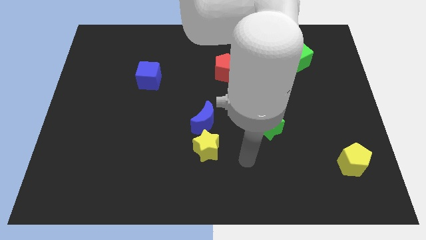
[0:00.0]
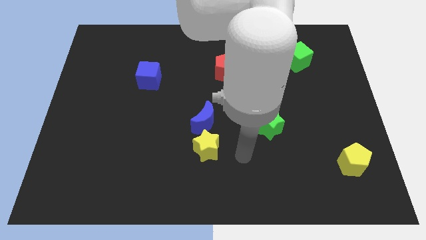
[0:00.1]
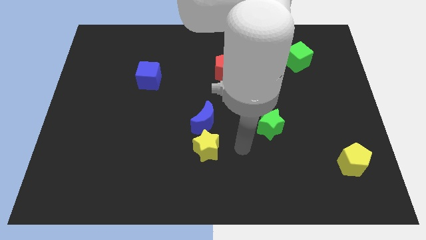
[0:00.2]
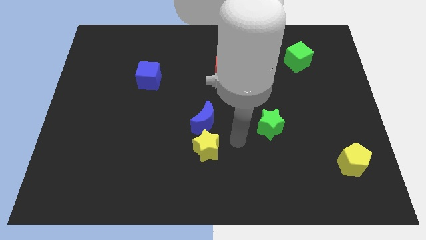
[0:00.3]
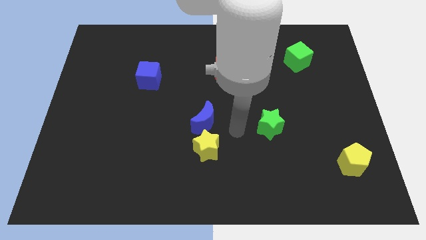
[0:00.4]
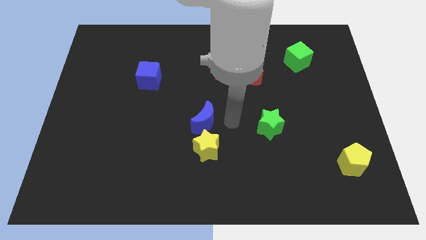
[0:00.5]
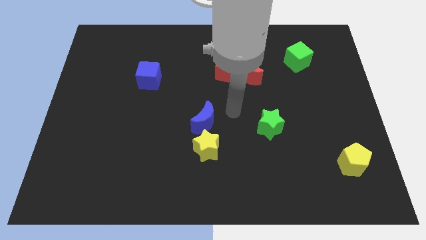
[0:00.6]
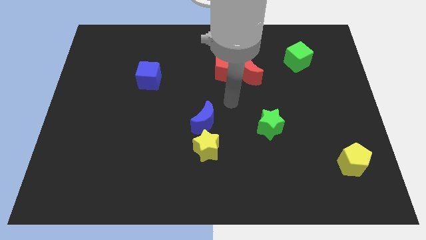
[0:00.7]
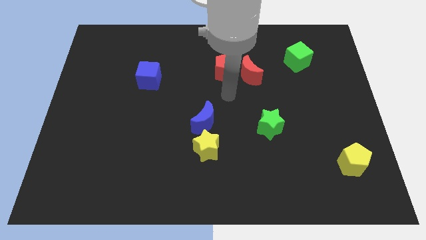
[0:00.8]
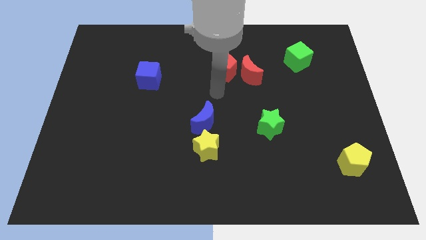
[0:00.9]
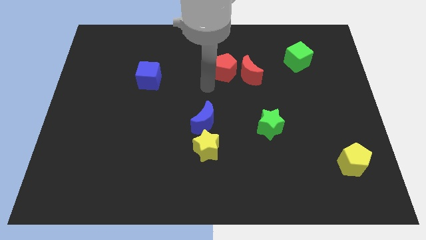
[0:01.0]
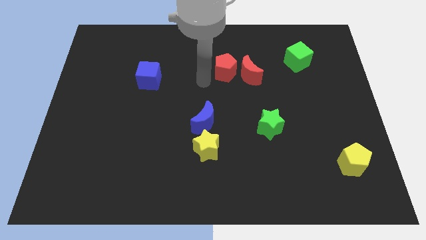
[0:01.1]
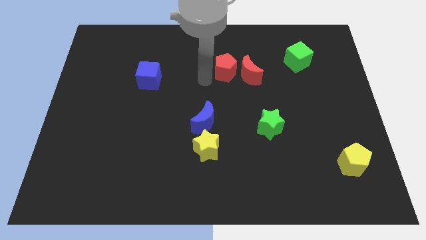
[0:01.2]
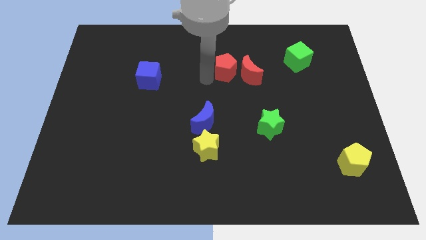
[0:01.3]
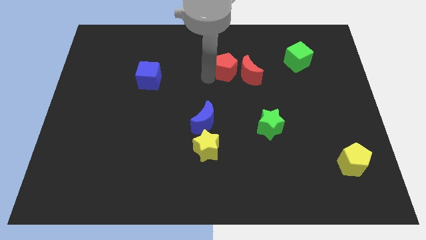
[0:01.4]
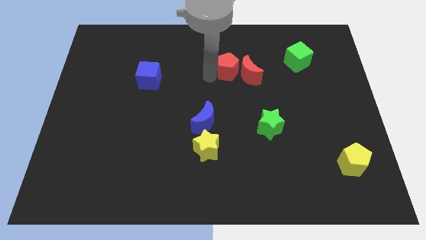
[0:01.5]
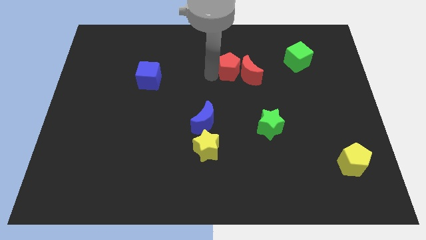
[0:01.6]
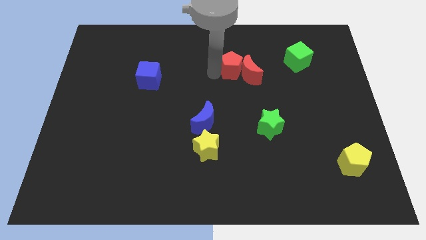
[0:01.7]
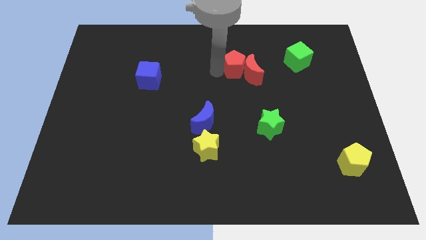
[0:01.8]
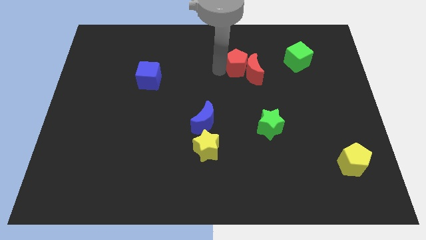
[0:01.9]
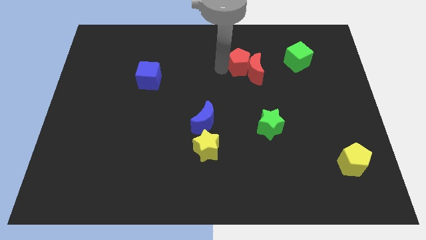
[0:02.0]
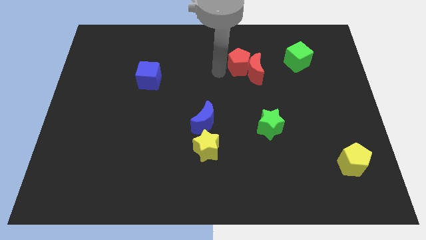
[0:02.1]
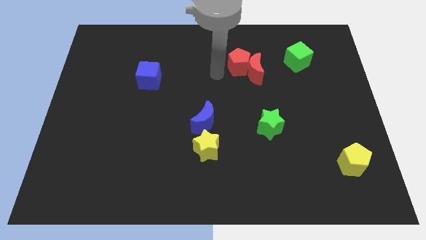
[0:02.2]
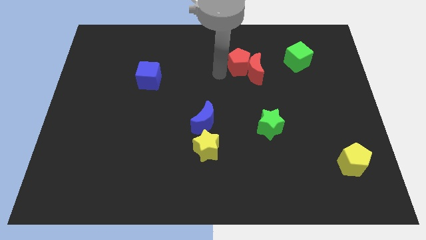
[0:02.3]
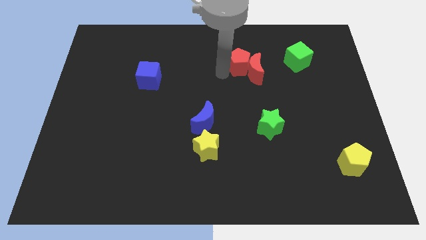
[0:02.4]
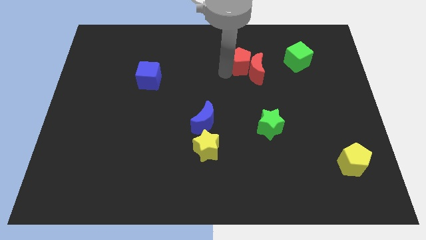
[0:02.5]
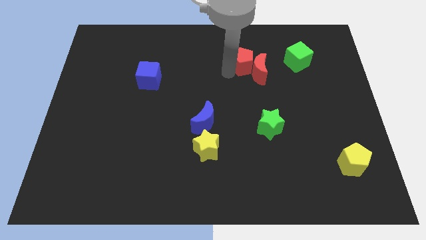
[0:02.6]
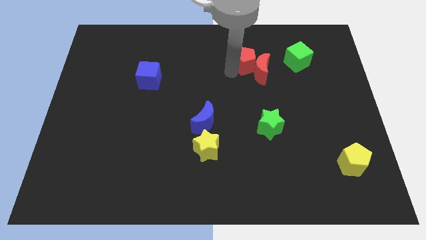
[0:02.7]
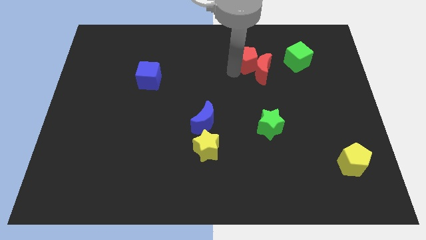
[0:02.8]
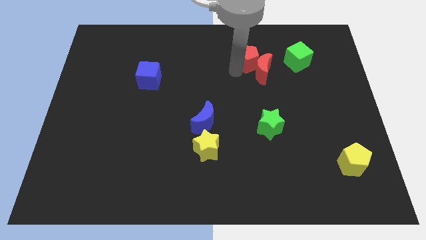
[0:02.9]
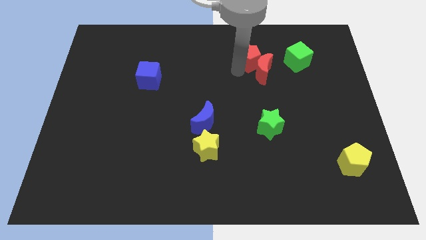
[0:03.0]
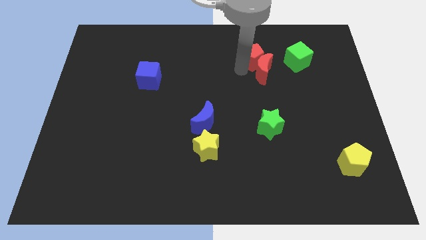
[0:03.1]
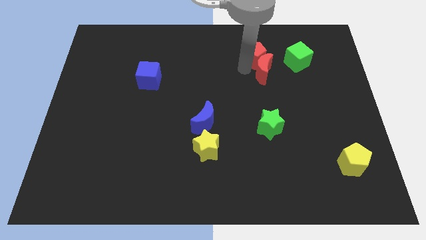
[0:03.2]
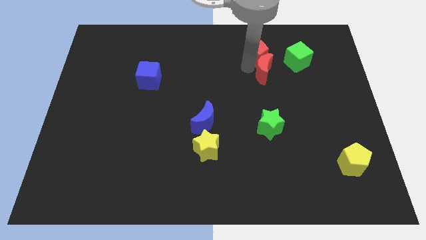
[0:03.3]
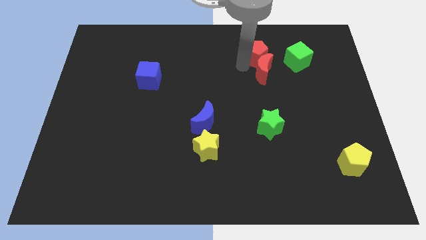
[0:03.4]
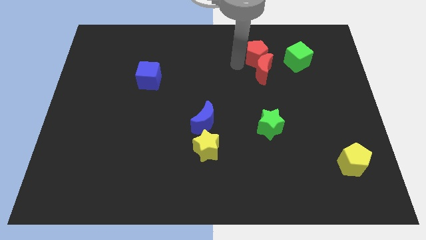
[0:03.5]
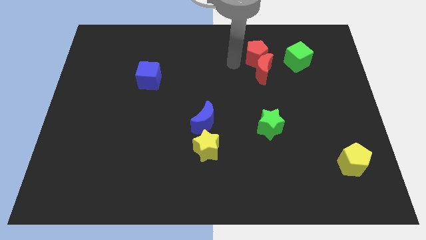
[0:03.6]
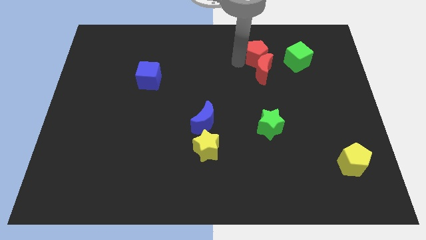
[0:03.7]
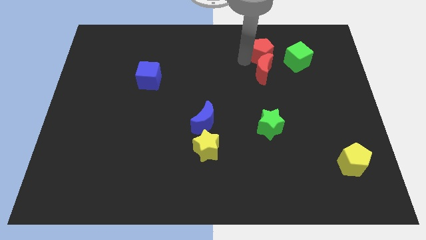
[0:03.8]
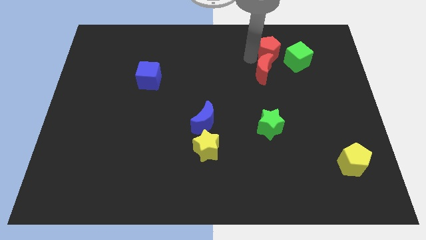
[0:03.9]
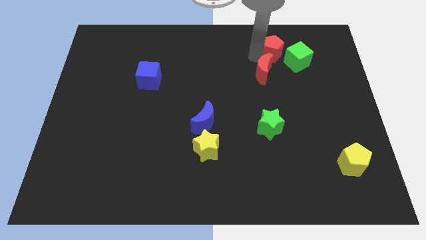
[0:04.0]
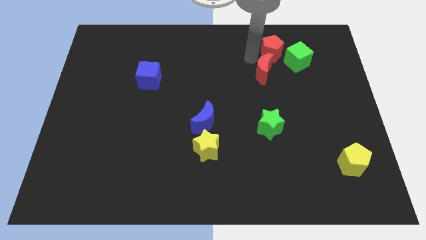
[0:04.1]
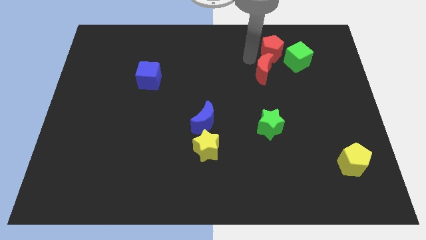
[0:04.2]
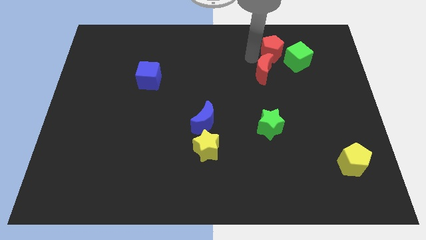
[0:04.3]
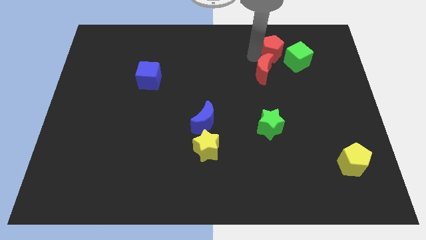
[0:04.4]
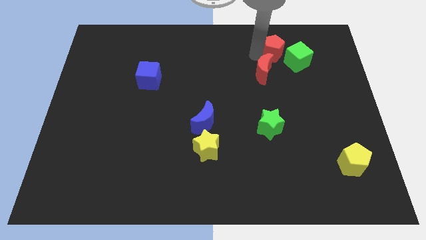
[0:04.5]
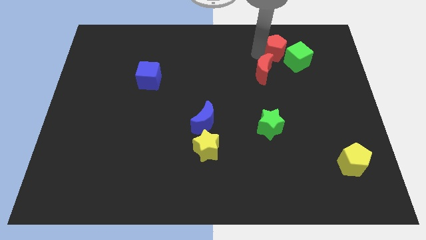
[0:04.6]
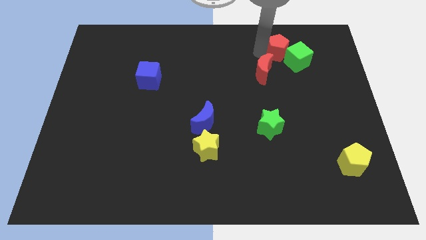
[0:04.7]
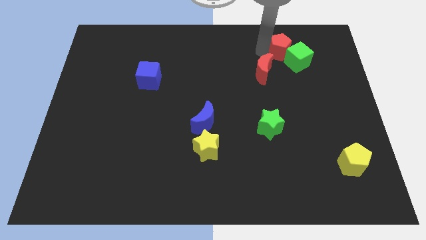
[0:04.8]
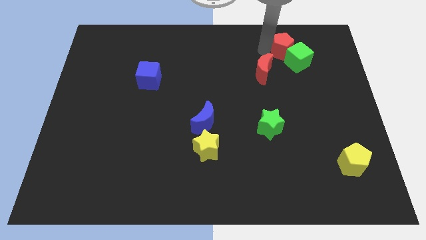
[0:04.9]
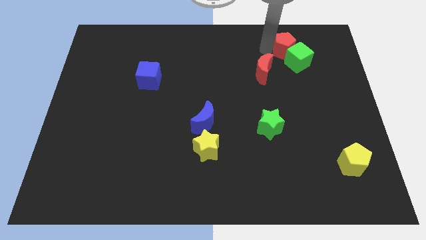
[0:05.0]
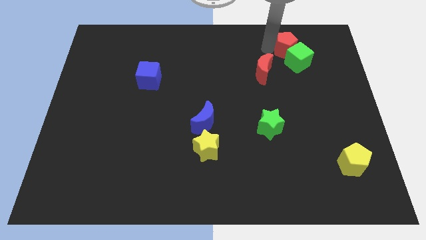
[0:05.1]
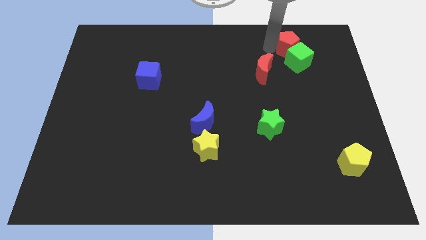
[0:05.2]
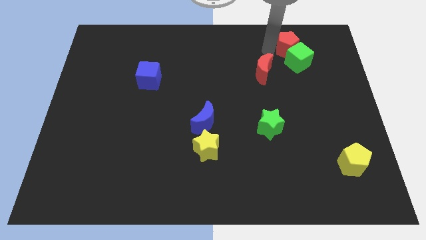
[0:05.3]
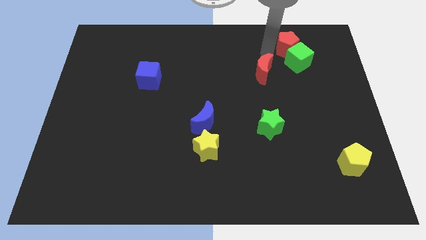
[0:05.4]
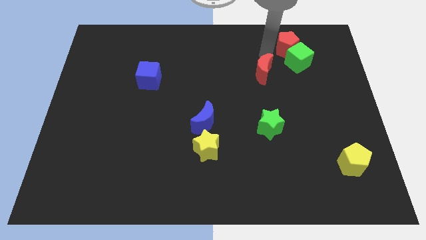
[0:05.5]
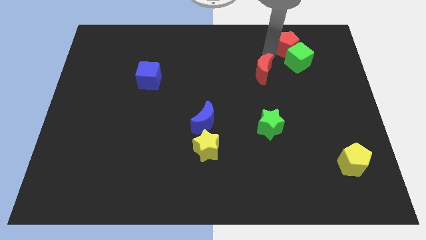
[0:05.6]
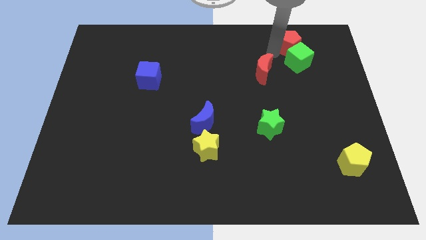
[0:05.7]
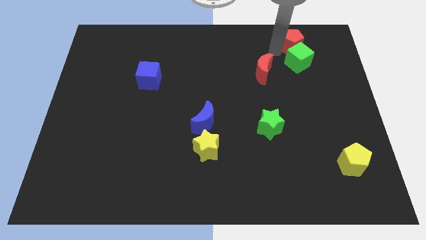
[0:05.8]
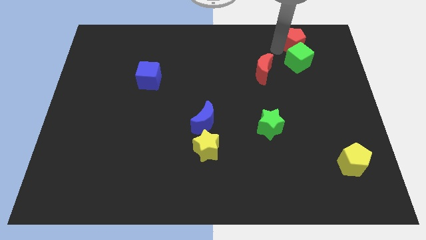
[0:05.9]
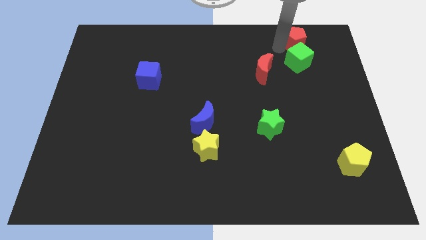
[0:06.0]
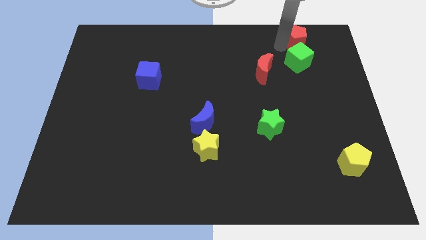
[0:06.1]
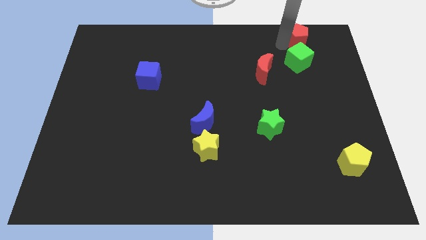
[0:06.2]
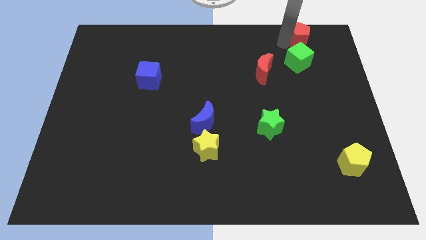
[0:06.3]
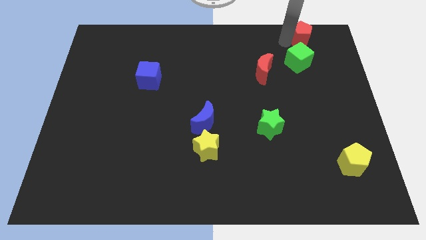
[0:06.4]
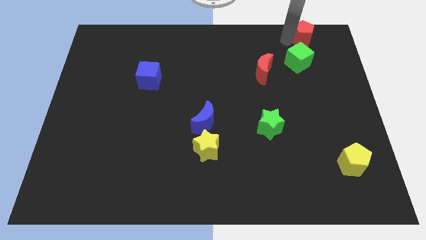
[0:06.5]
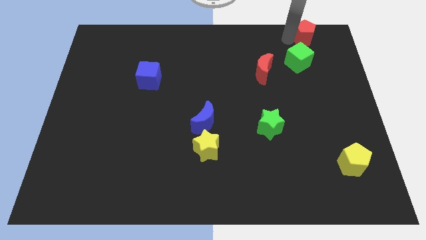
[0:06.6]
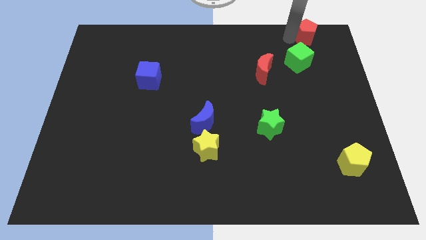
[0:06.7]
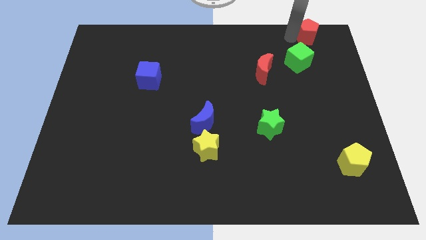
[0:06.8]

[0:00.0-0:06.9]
move the red pentagon to the upper right corner
